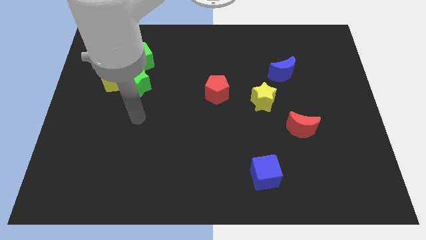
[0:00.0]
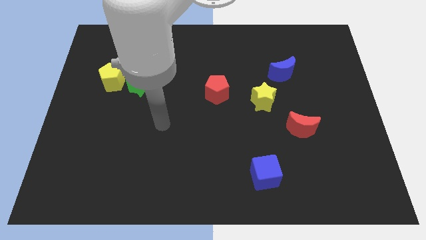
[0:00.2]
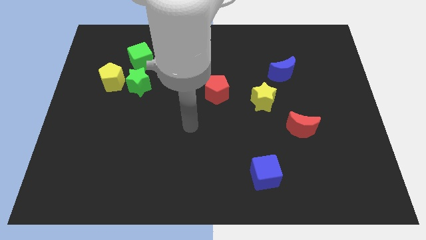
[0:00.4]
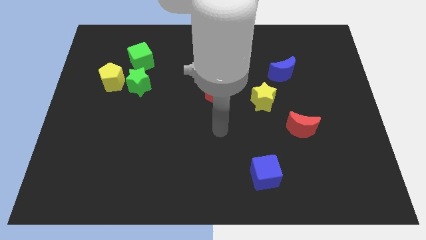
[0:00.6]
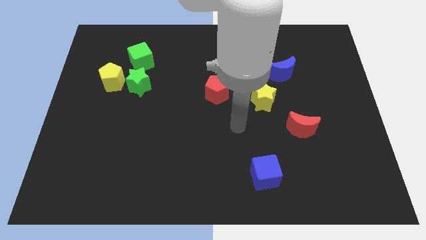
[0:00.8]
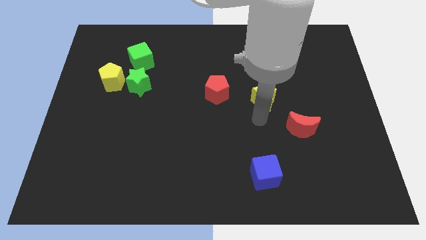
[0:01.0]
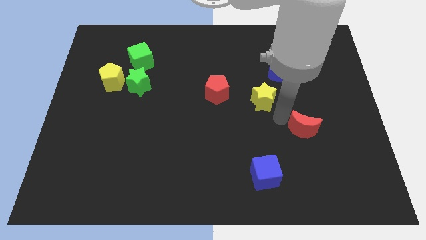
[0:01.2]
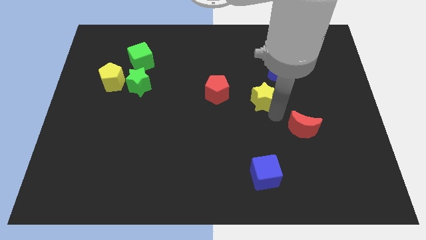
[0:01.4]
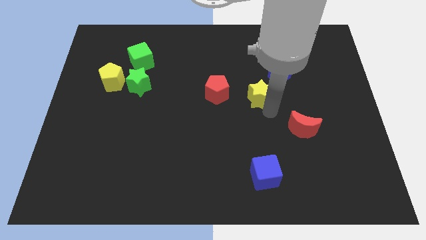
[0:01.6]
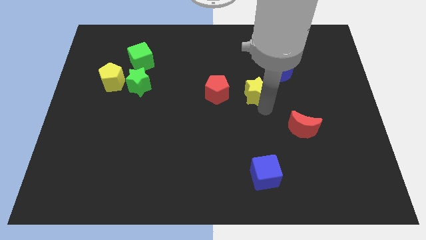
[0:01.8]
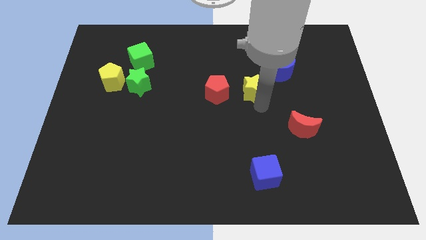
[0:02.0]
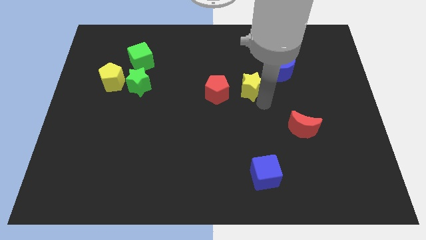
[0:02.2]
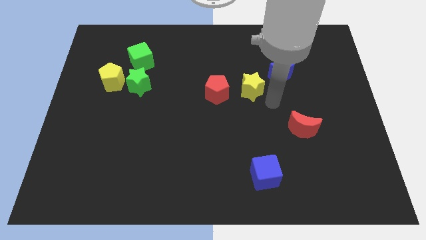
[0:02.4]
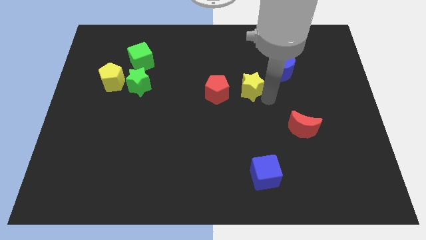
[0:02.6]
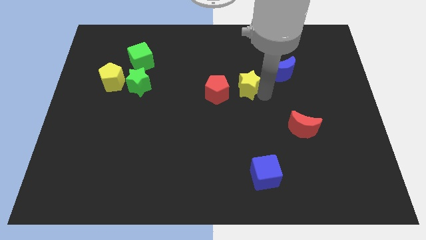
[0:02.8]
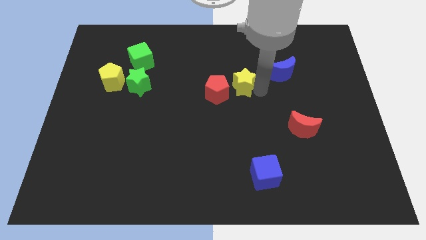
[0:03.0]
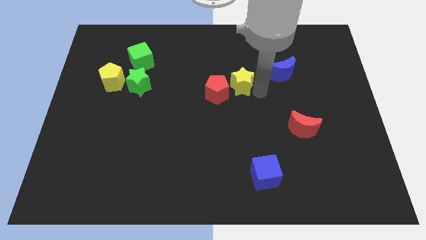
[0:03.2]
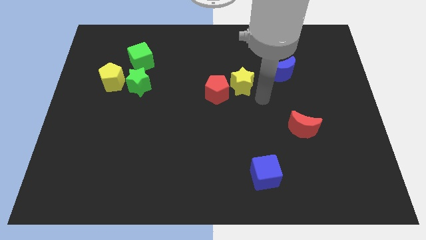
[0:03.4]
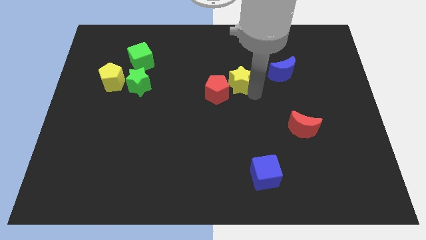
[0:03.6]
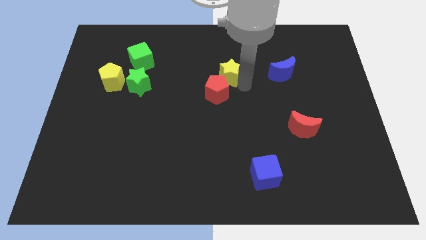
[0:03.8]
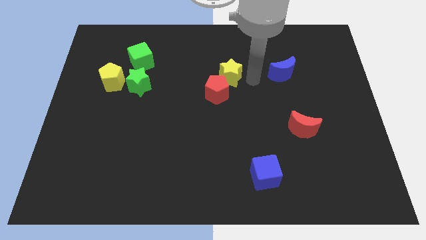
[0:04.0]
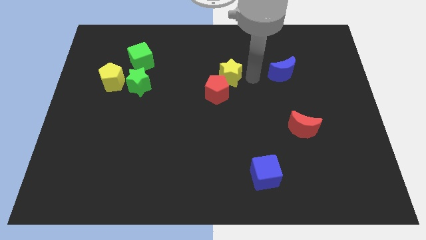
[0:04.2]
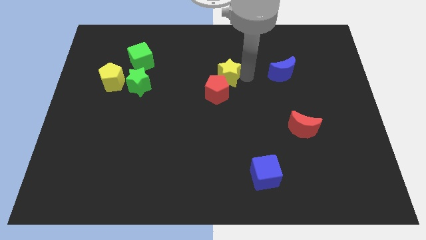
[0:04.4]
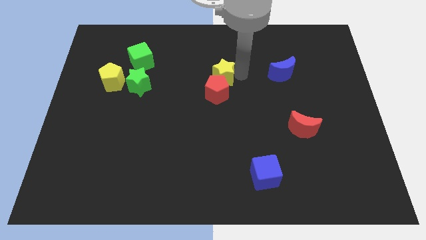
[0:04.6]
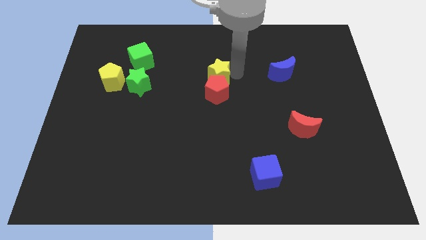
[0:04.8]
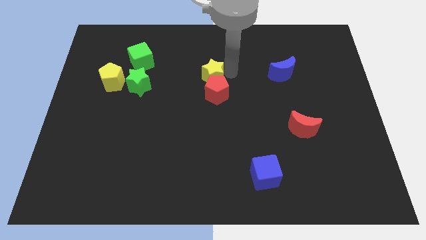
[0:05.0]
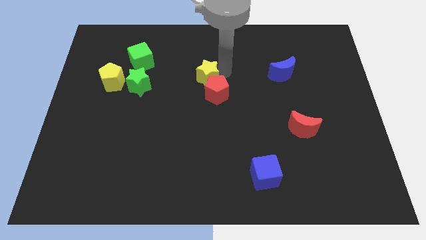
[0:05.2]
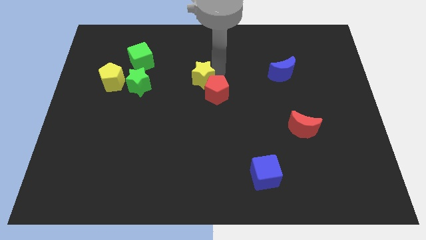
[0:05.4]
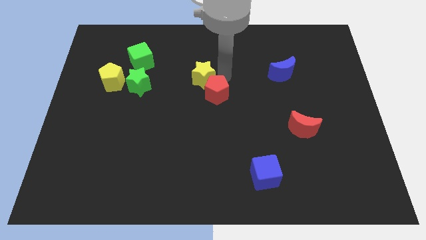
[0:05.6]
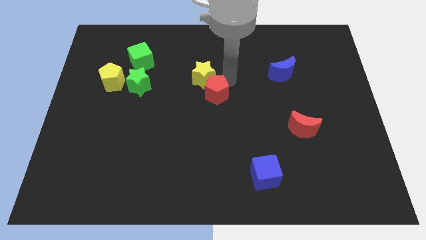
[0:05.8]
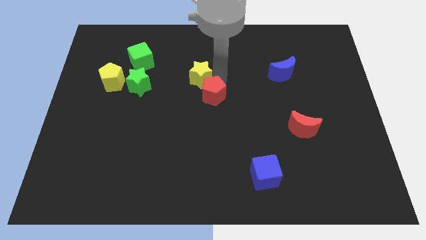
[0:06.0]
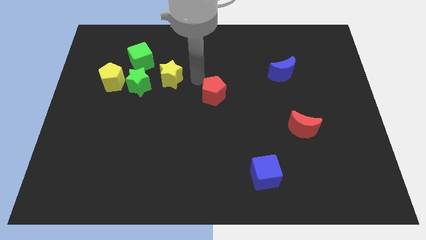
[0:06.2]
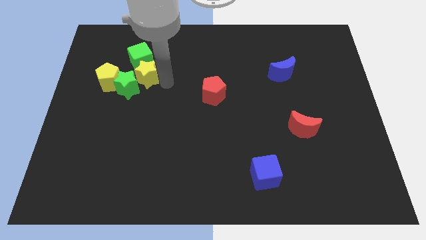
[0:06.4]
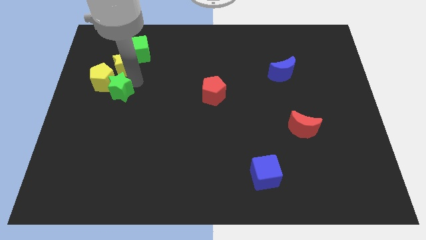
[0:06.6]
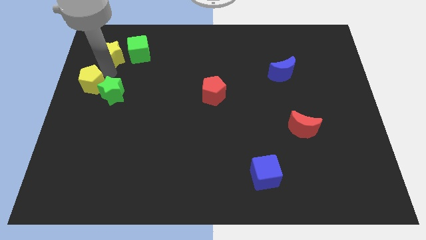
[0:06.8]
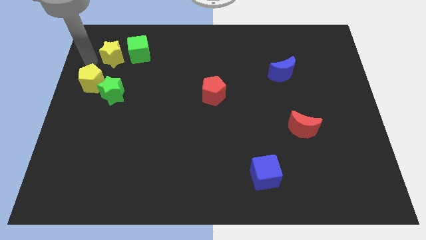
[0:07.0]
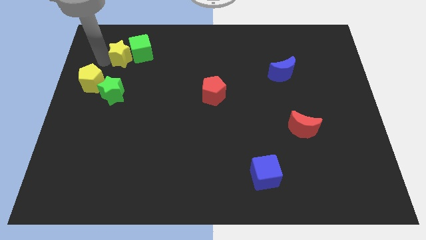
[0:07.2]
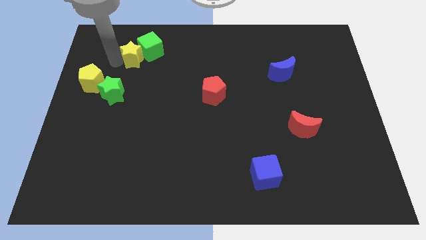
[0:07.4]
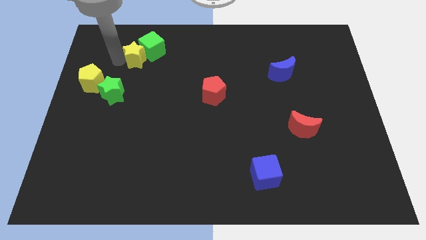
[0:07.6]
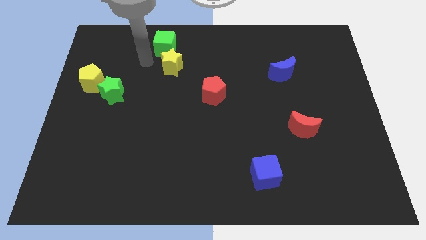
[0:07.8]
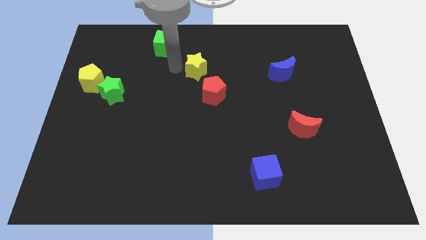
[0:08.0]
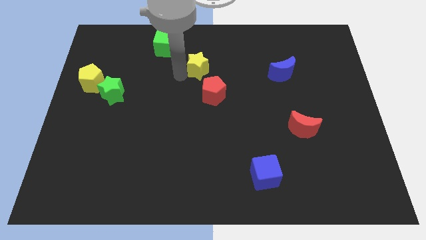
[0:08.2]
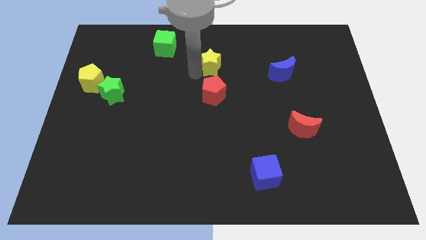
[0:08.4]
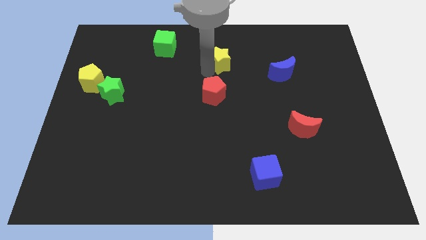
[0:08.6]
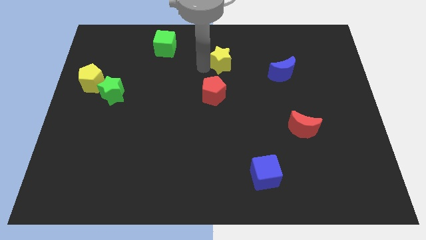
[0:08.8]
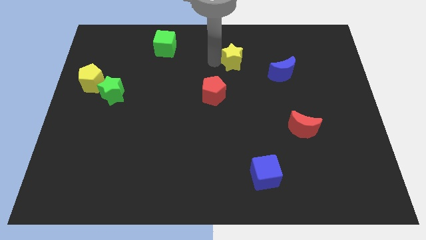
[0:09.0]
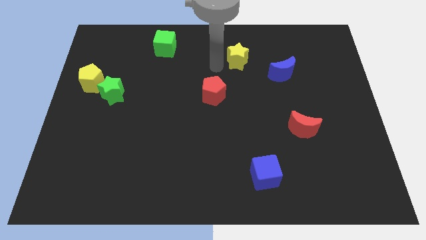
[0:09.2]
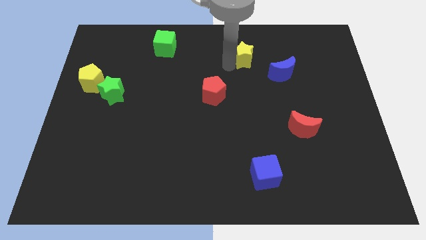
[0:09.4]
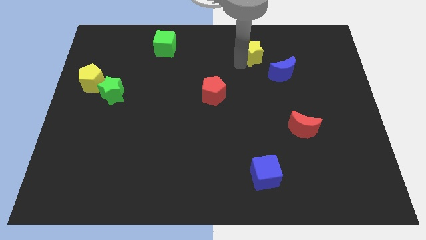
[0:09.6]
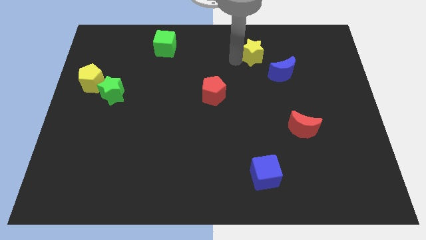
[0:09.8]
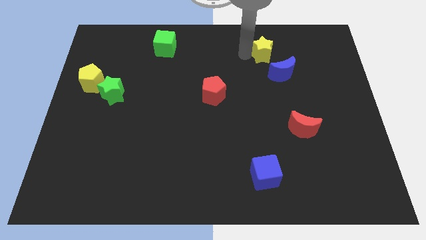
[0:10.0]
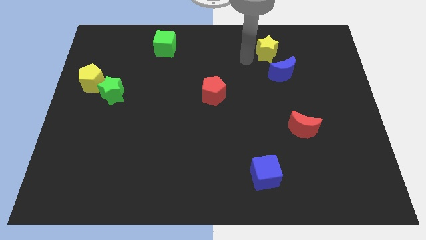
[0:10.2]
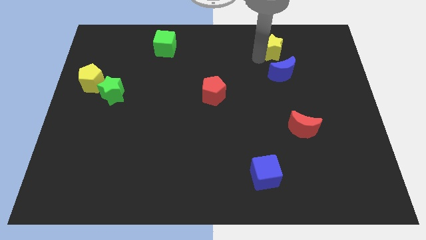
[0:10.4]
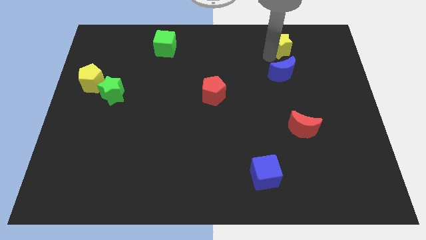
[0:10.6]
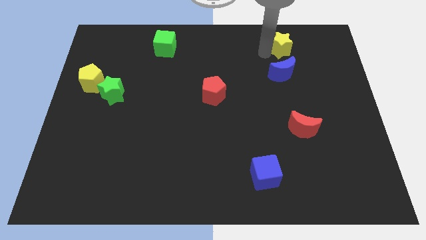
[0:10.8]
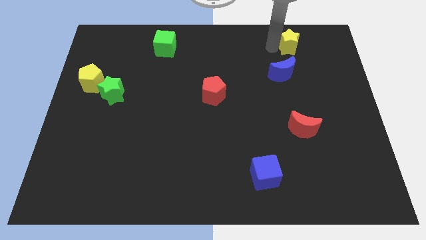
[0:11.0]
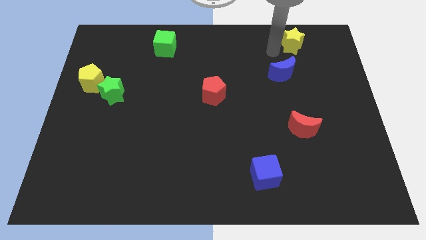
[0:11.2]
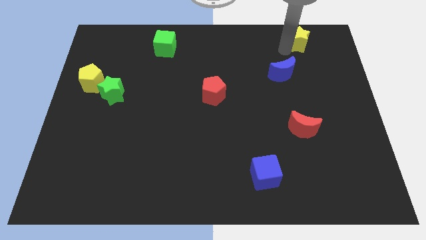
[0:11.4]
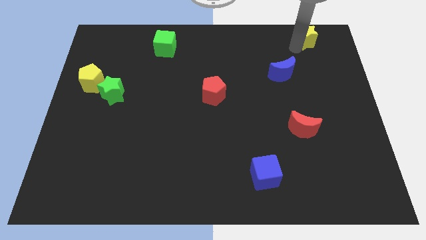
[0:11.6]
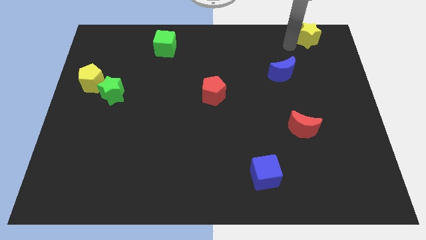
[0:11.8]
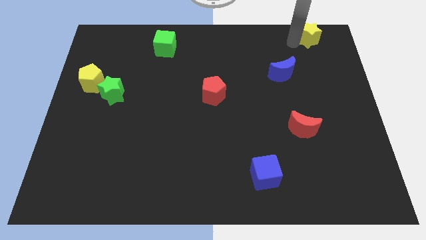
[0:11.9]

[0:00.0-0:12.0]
slide the yellow star to the top right of the board
